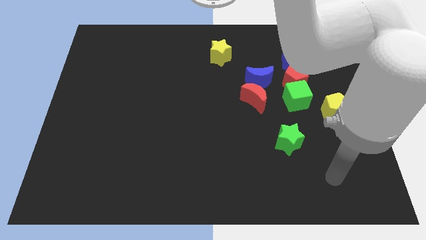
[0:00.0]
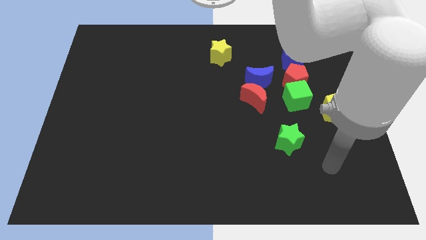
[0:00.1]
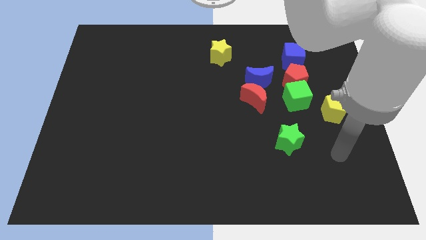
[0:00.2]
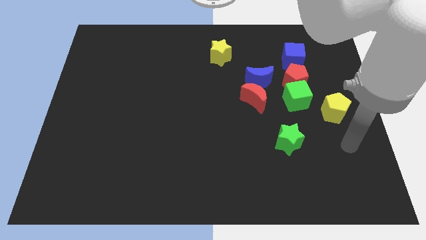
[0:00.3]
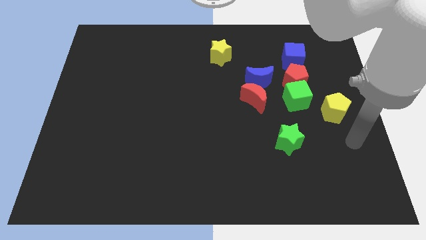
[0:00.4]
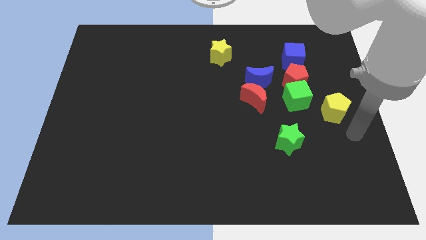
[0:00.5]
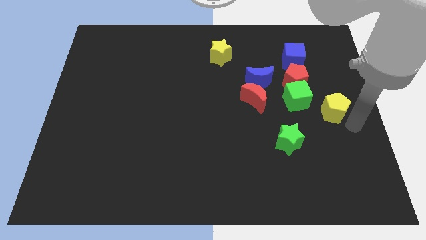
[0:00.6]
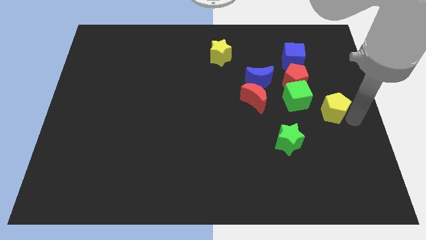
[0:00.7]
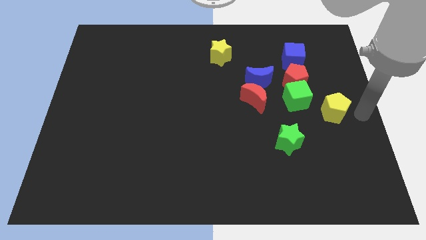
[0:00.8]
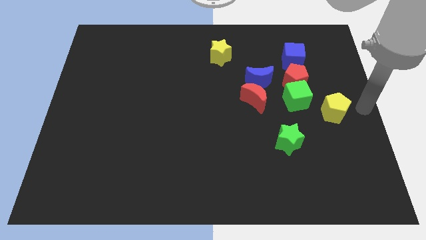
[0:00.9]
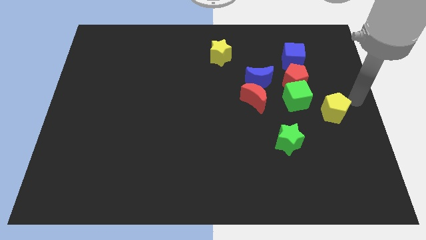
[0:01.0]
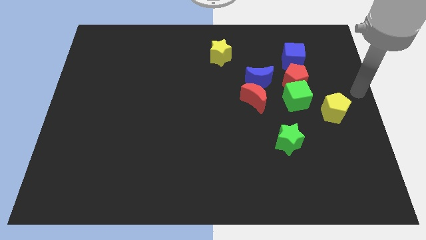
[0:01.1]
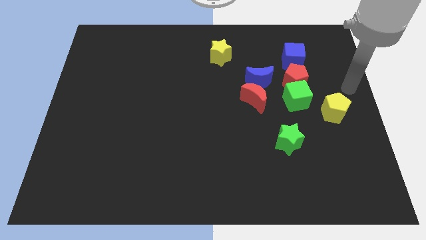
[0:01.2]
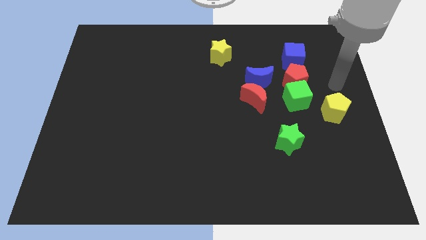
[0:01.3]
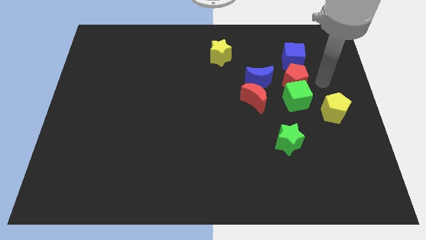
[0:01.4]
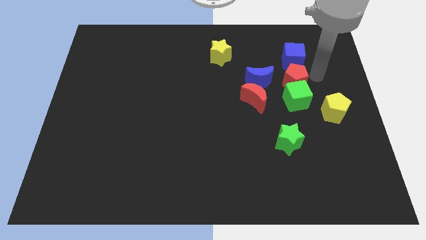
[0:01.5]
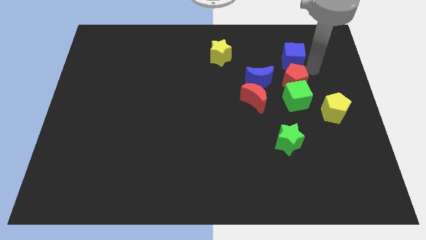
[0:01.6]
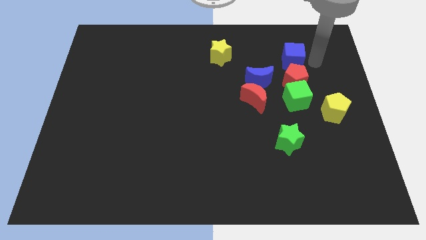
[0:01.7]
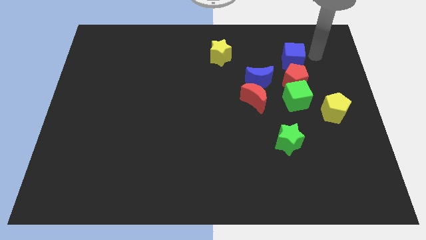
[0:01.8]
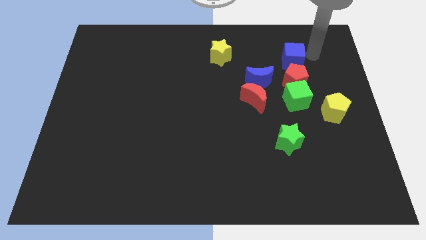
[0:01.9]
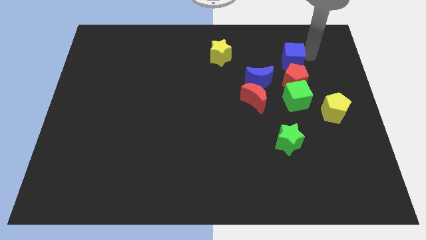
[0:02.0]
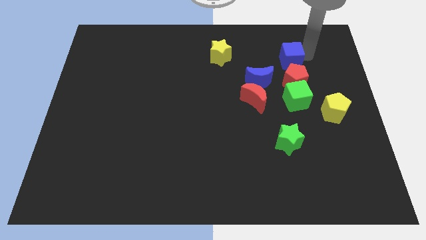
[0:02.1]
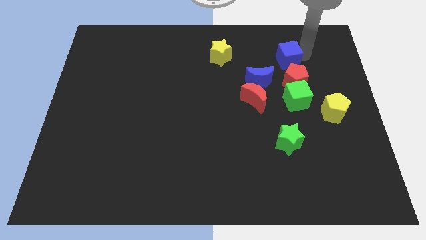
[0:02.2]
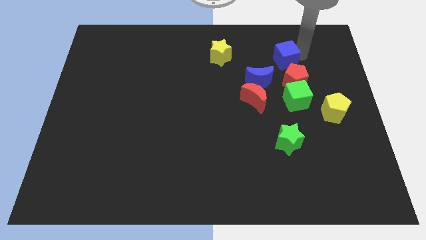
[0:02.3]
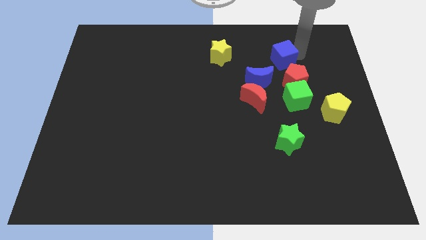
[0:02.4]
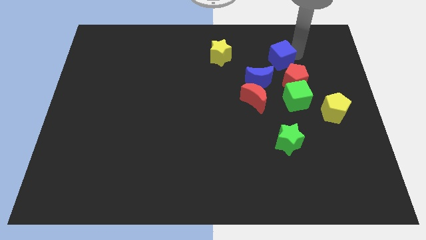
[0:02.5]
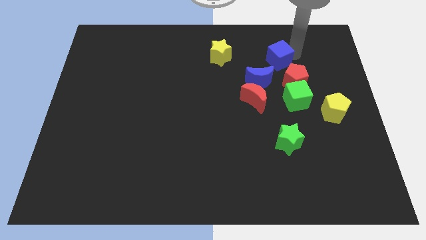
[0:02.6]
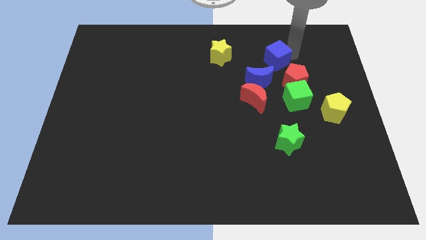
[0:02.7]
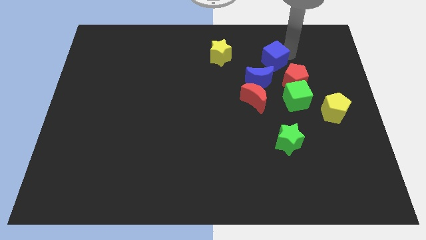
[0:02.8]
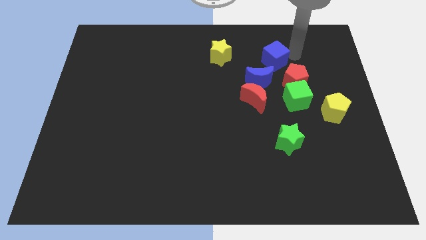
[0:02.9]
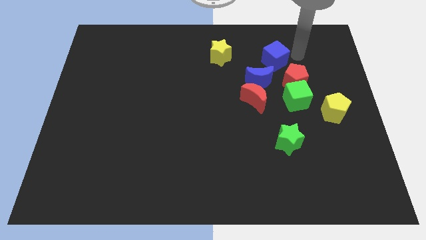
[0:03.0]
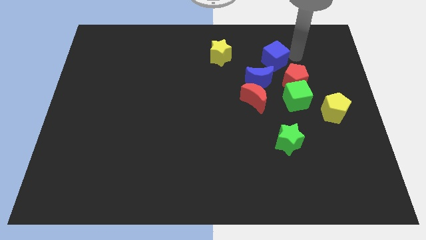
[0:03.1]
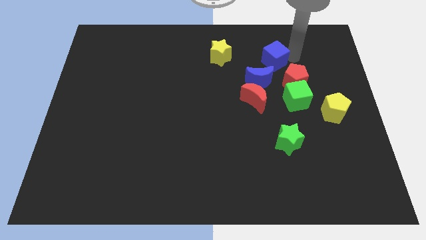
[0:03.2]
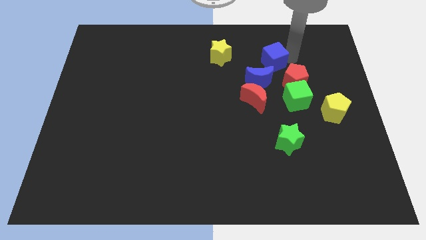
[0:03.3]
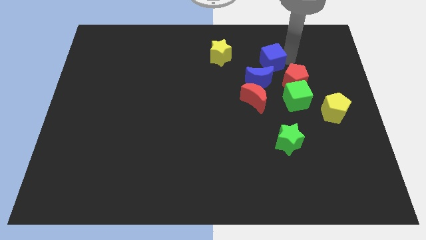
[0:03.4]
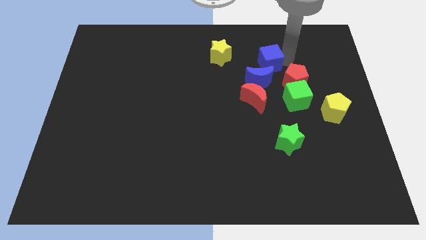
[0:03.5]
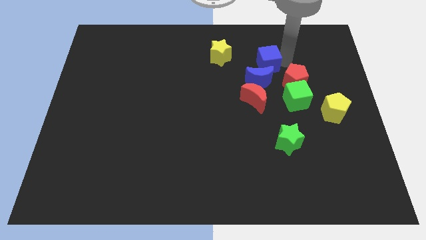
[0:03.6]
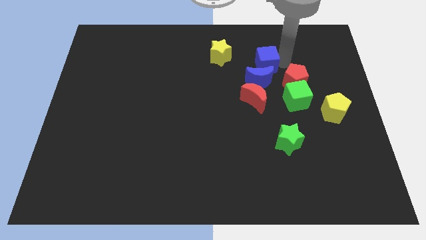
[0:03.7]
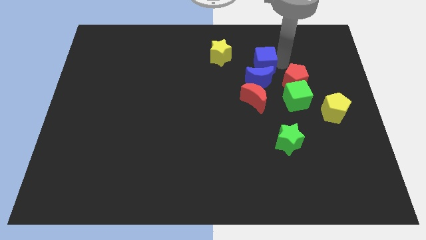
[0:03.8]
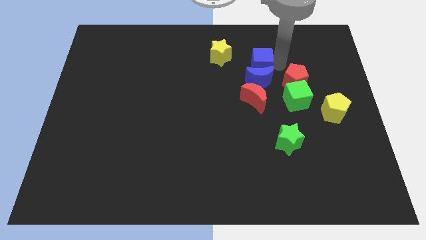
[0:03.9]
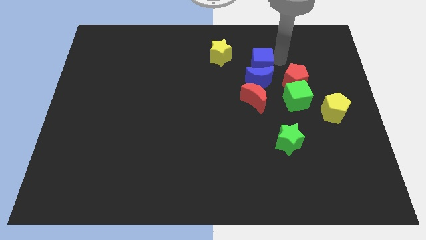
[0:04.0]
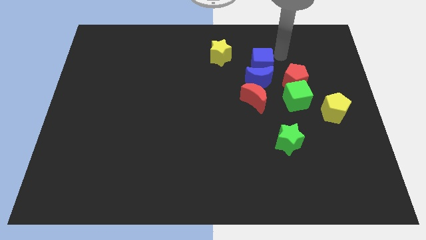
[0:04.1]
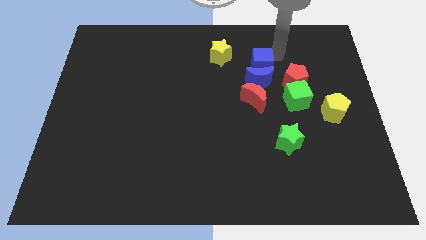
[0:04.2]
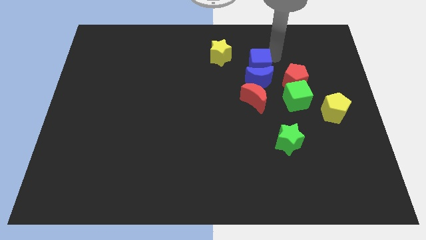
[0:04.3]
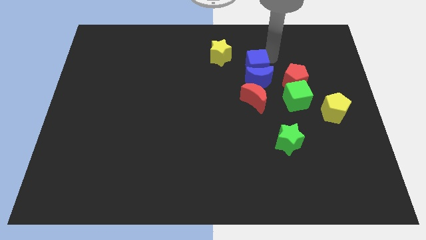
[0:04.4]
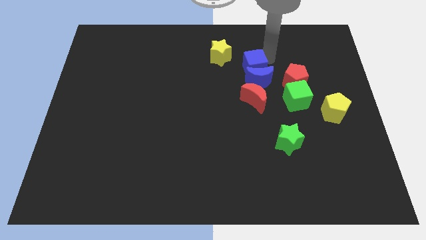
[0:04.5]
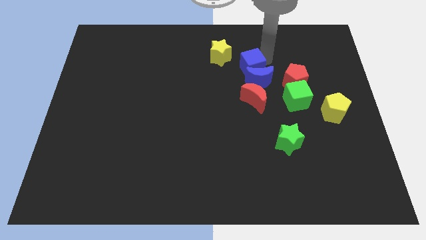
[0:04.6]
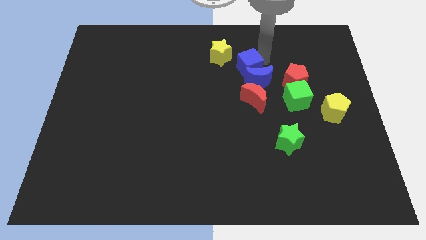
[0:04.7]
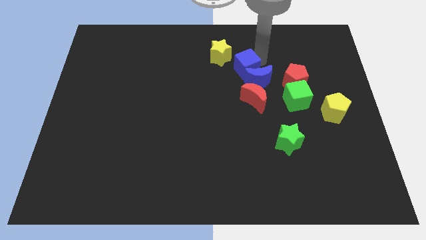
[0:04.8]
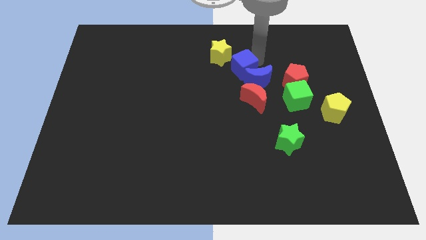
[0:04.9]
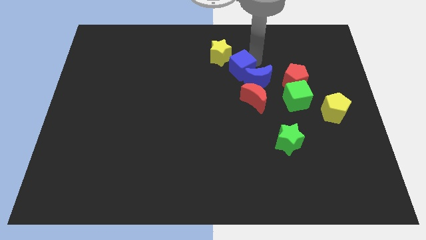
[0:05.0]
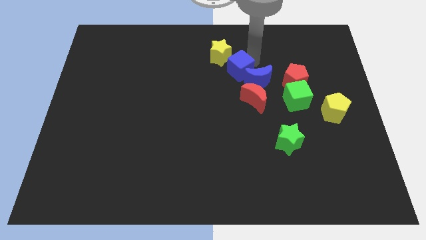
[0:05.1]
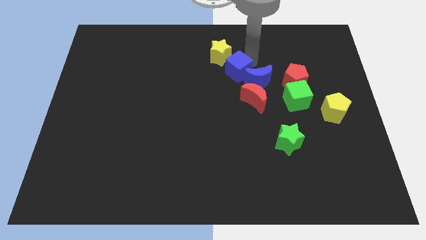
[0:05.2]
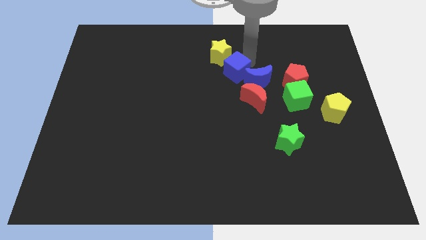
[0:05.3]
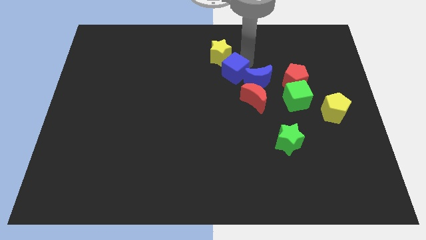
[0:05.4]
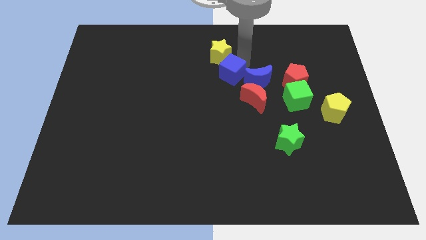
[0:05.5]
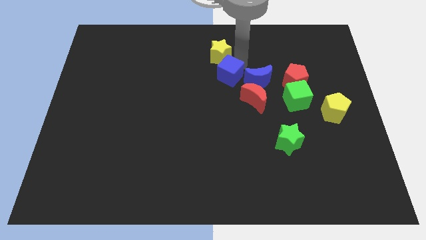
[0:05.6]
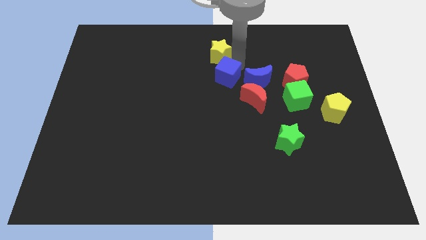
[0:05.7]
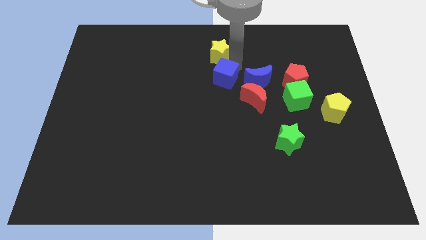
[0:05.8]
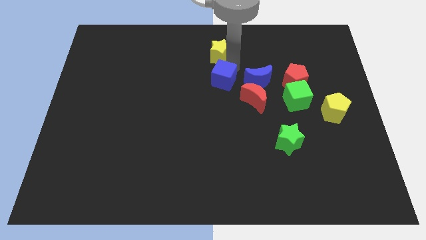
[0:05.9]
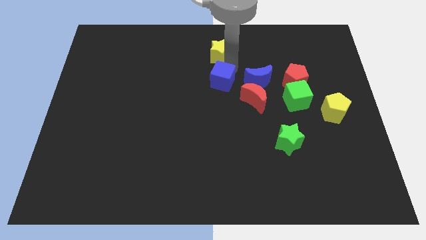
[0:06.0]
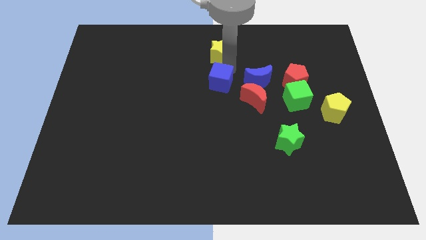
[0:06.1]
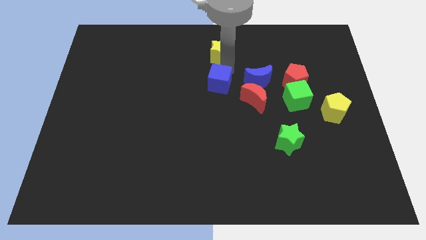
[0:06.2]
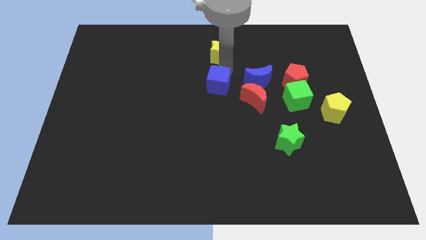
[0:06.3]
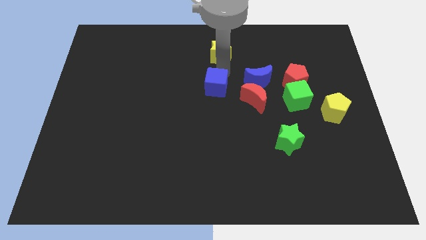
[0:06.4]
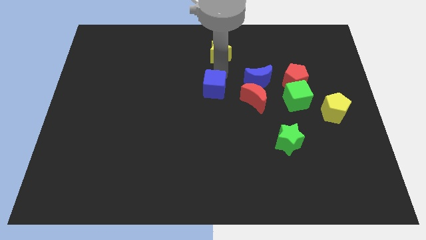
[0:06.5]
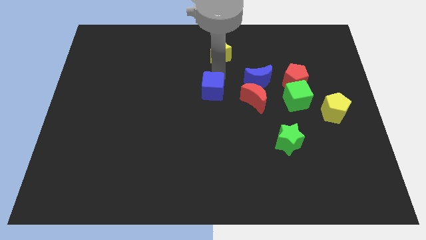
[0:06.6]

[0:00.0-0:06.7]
slide the blue cube downwards and then to the left

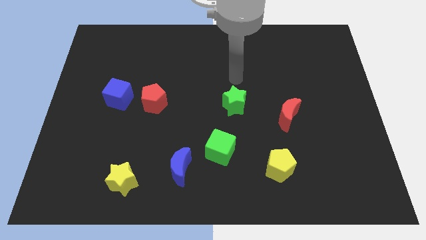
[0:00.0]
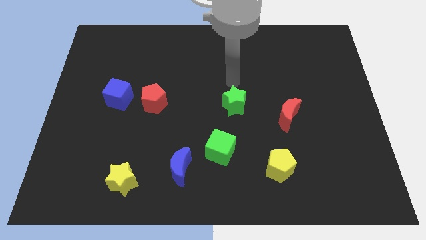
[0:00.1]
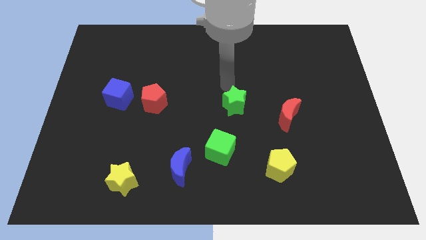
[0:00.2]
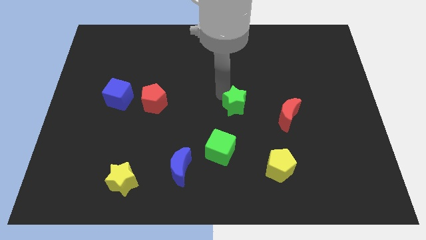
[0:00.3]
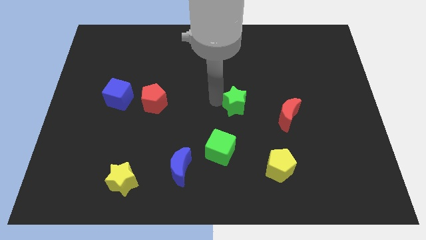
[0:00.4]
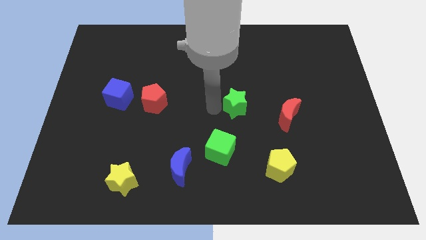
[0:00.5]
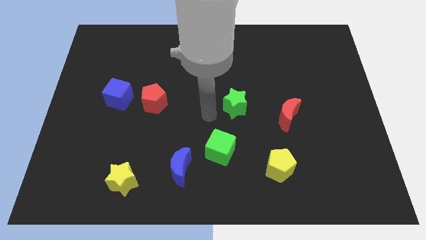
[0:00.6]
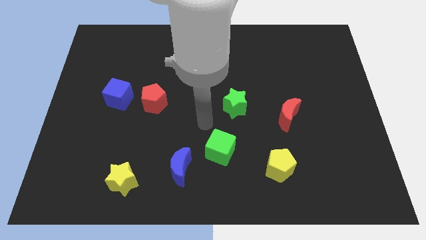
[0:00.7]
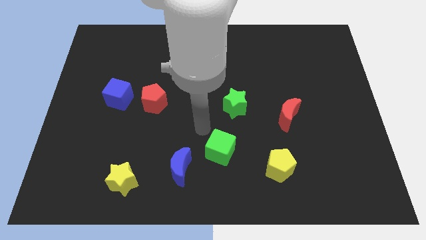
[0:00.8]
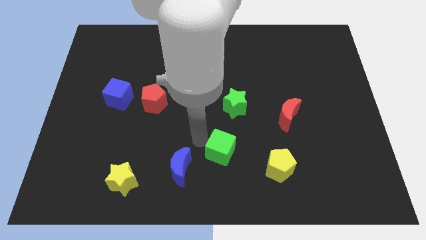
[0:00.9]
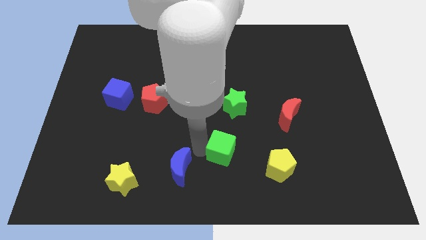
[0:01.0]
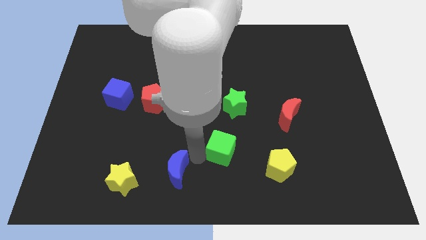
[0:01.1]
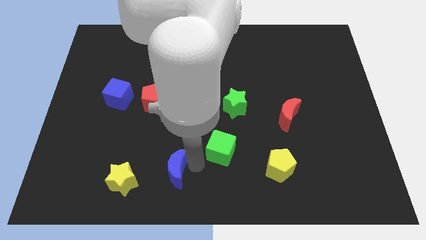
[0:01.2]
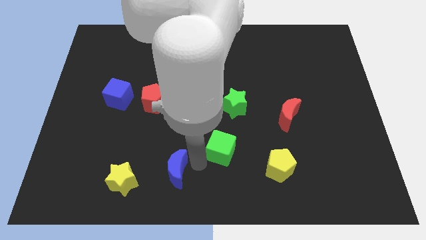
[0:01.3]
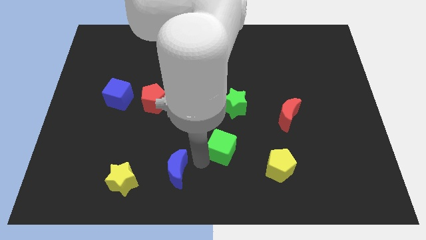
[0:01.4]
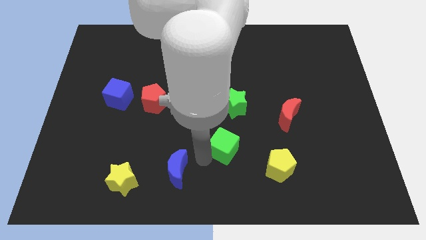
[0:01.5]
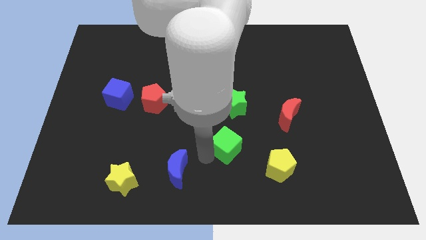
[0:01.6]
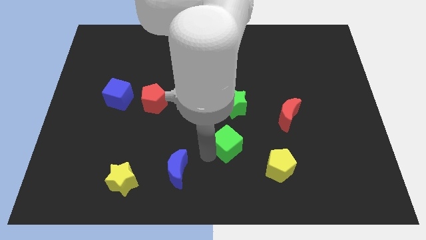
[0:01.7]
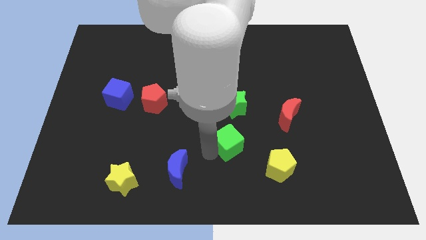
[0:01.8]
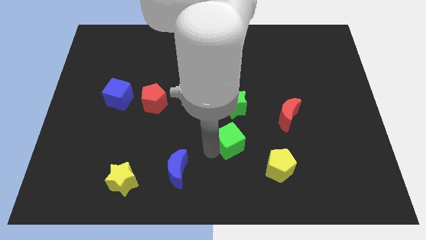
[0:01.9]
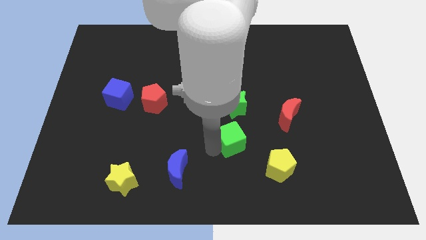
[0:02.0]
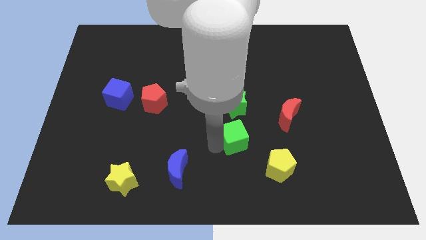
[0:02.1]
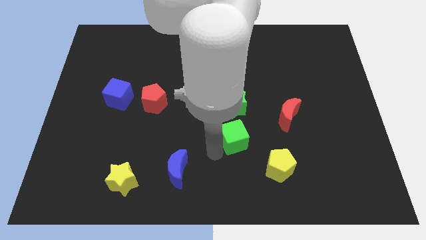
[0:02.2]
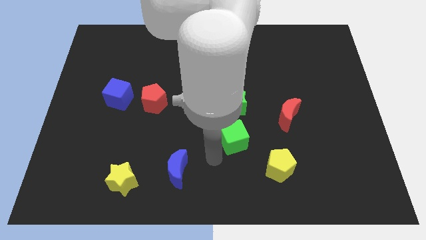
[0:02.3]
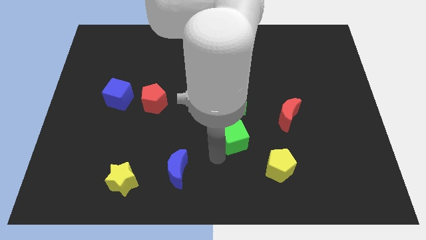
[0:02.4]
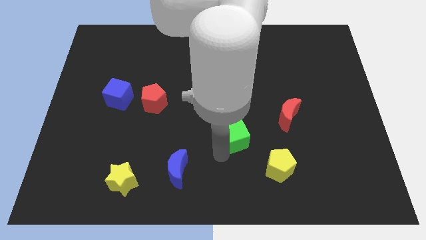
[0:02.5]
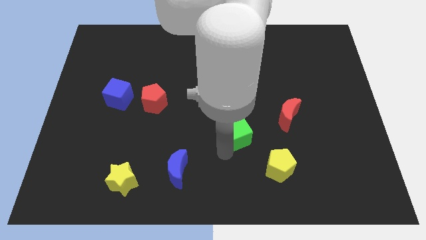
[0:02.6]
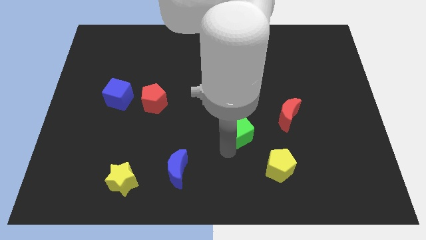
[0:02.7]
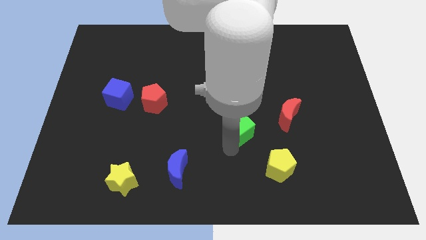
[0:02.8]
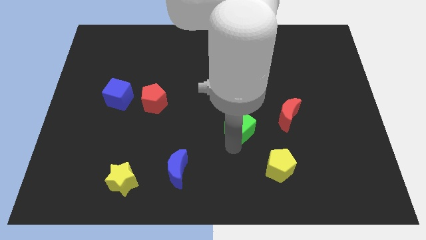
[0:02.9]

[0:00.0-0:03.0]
move the green cube up and then to the right somewhat
